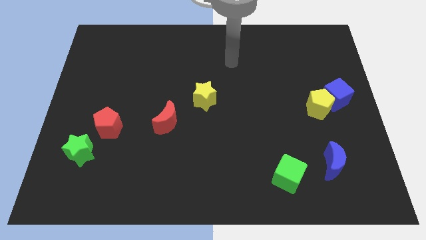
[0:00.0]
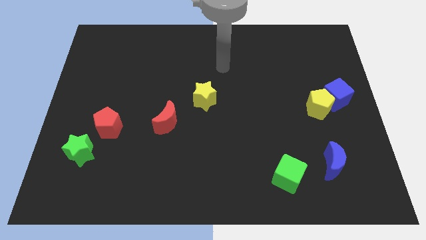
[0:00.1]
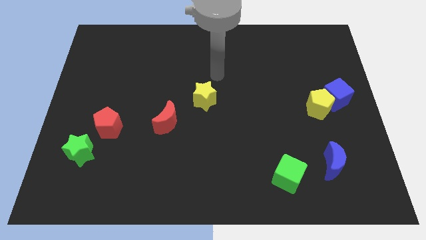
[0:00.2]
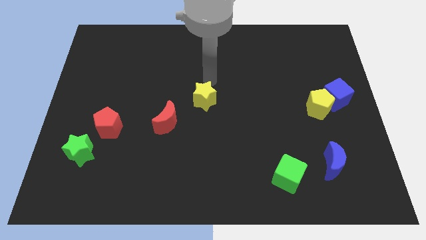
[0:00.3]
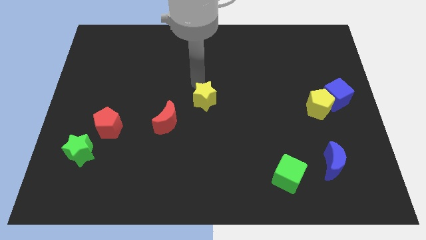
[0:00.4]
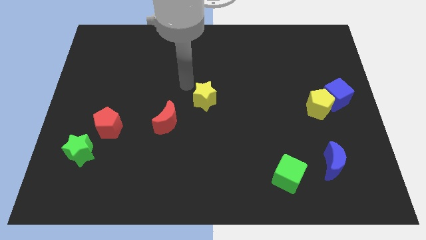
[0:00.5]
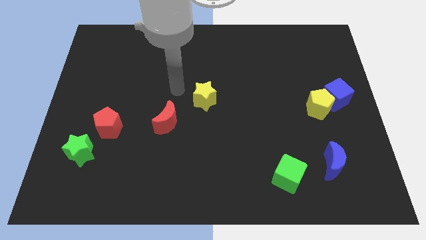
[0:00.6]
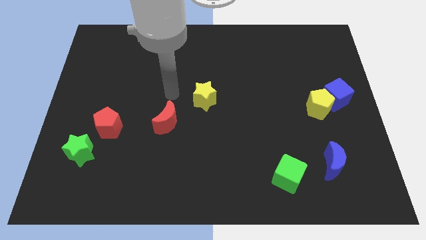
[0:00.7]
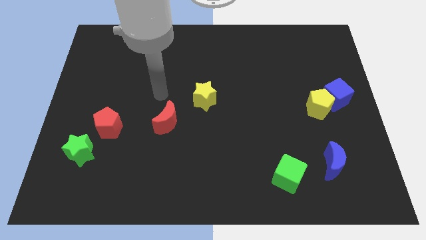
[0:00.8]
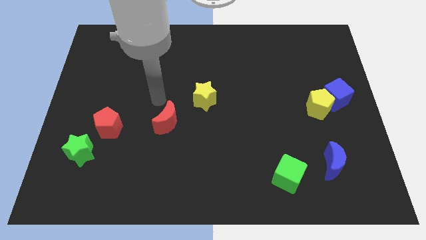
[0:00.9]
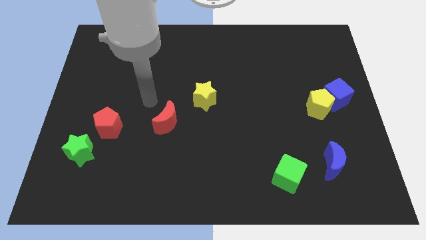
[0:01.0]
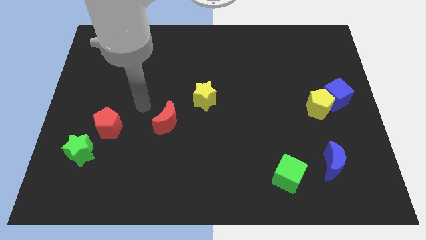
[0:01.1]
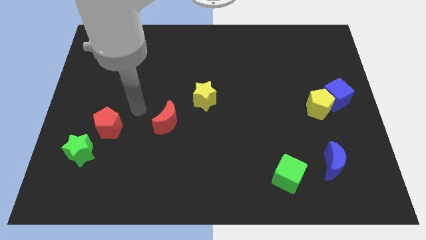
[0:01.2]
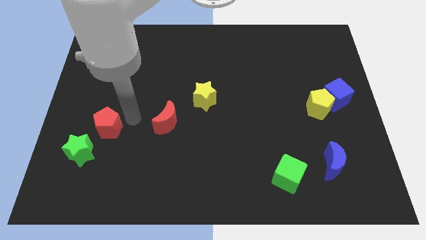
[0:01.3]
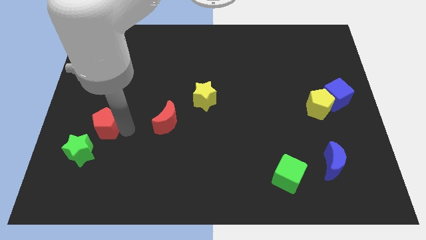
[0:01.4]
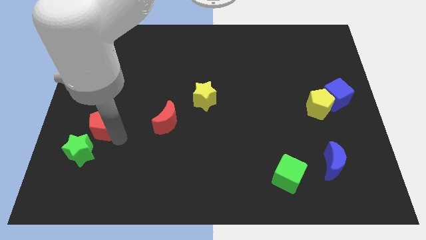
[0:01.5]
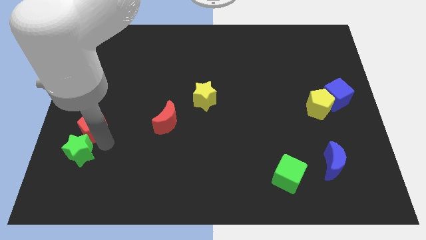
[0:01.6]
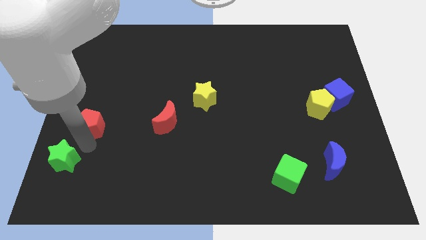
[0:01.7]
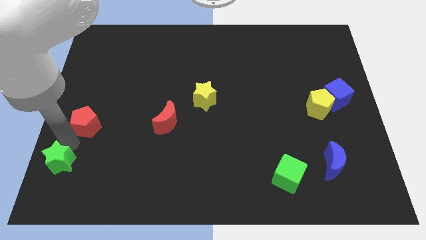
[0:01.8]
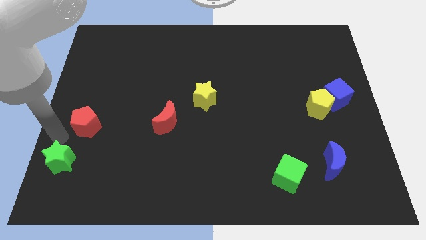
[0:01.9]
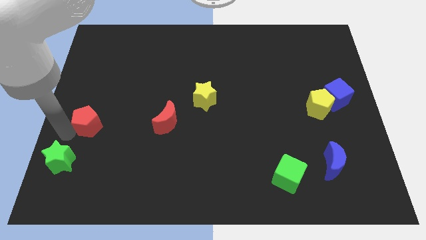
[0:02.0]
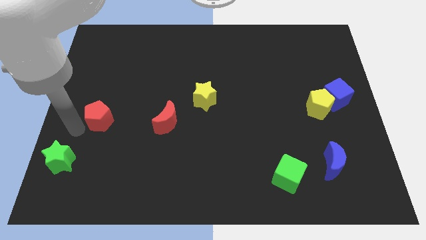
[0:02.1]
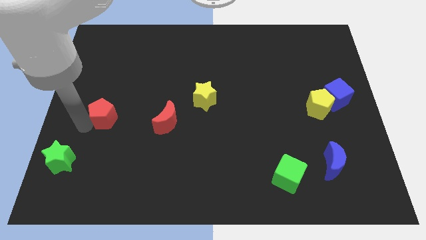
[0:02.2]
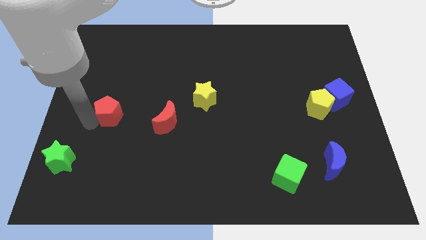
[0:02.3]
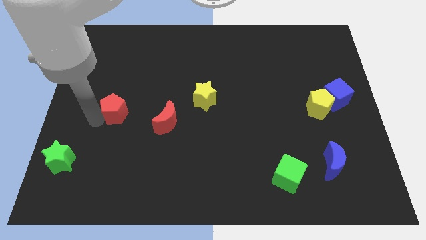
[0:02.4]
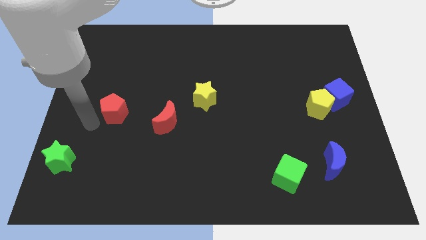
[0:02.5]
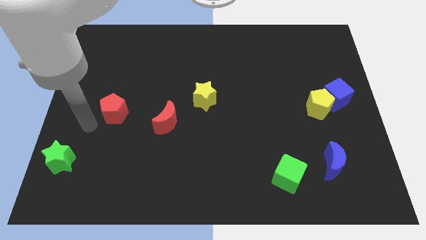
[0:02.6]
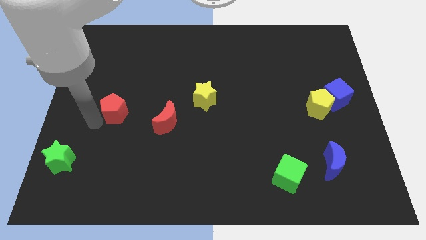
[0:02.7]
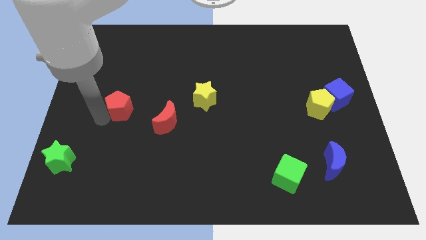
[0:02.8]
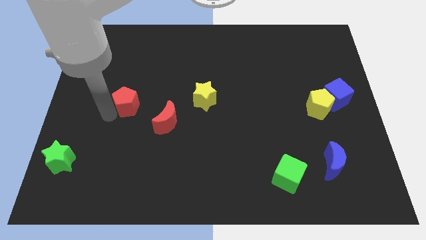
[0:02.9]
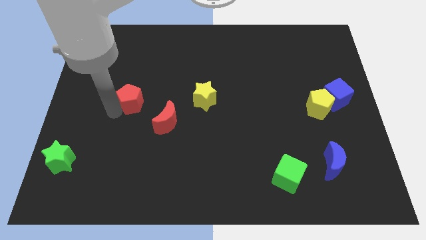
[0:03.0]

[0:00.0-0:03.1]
slightly push the red pentagon up and right

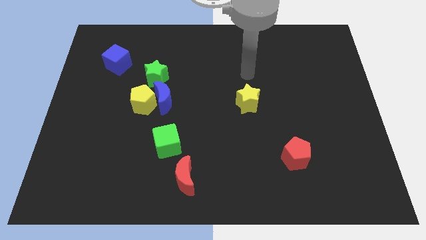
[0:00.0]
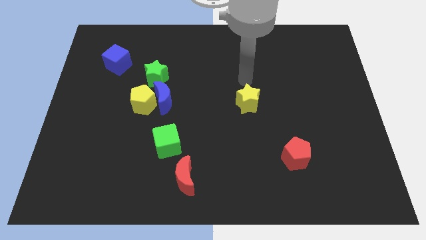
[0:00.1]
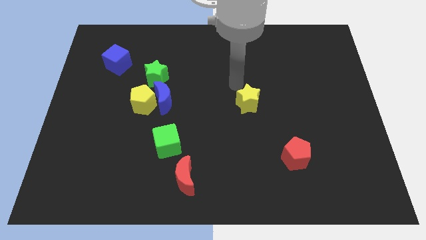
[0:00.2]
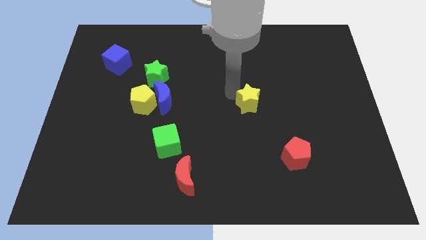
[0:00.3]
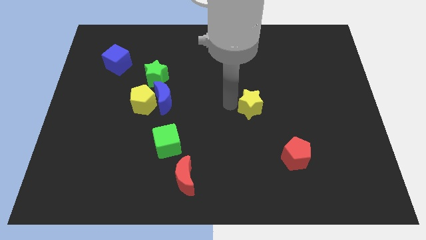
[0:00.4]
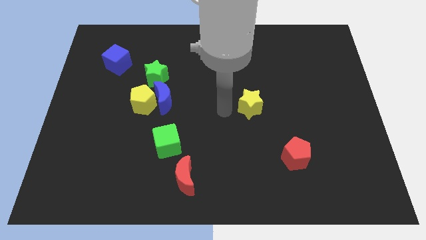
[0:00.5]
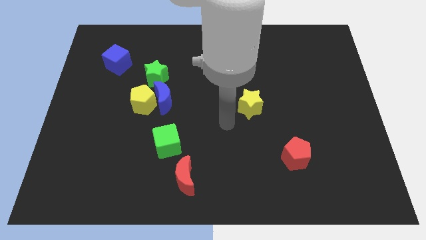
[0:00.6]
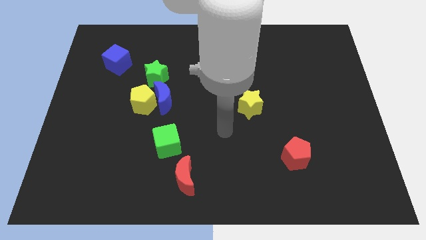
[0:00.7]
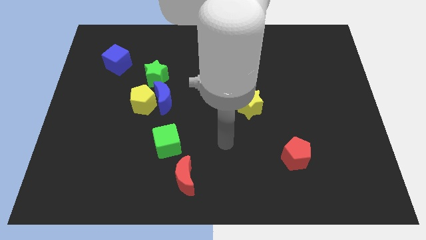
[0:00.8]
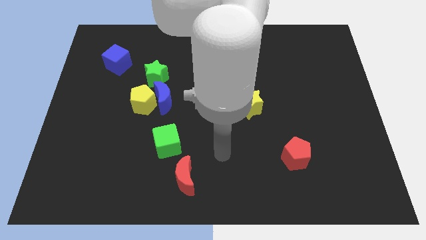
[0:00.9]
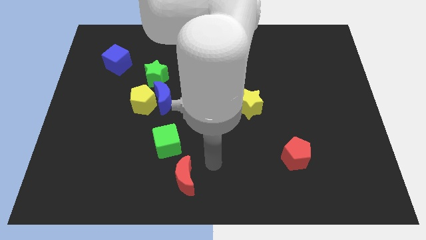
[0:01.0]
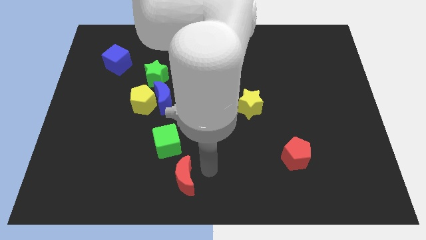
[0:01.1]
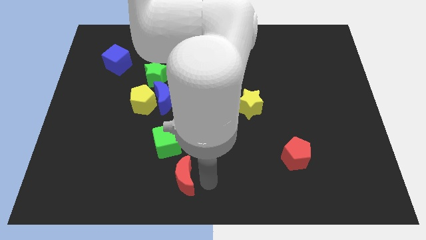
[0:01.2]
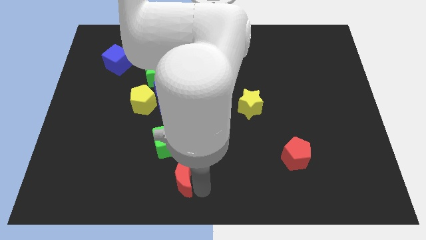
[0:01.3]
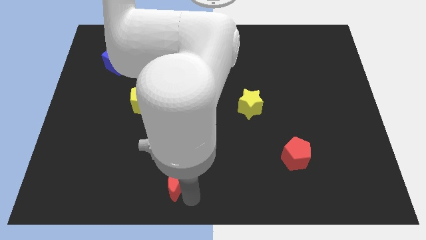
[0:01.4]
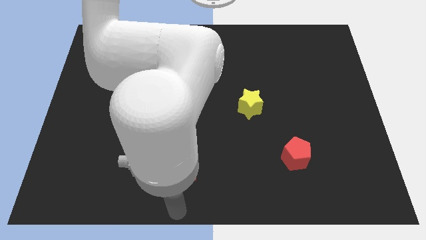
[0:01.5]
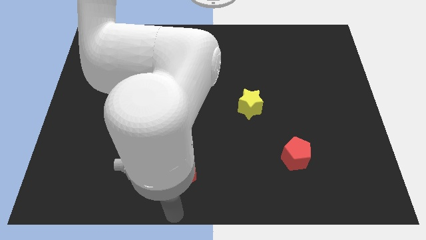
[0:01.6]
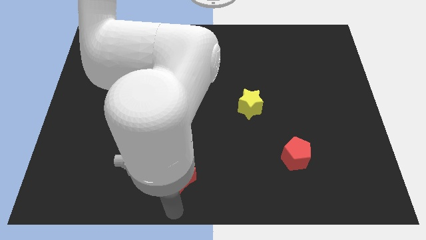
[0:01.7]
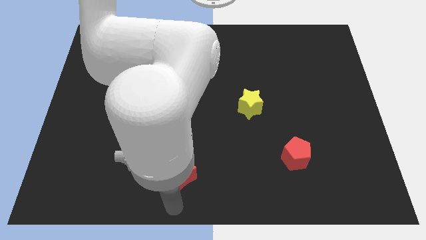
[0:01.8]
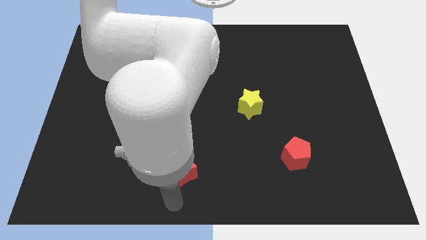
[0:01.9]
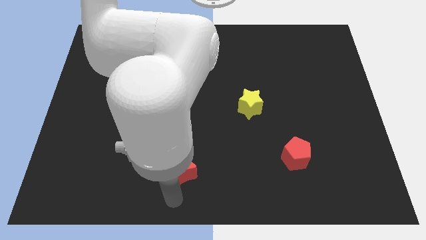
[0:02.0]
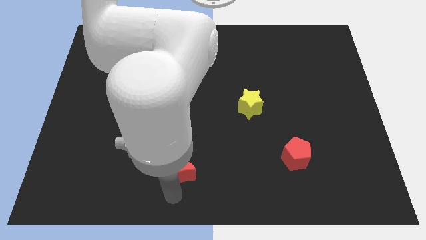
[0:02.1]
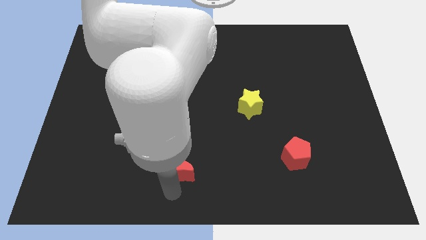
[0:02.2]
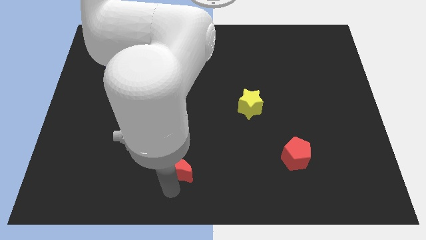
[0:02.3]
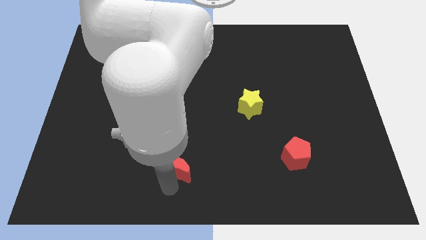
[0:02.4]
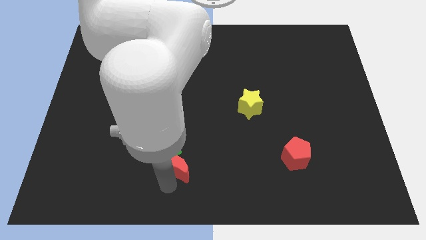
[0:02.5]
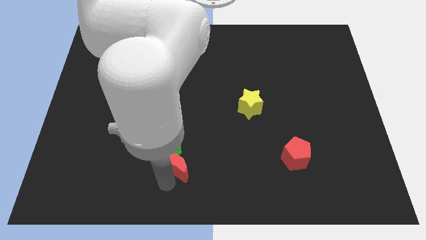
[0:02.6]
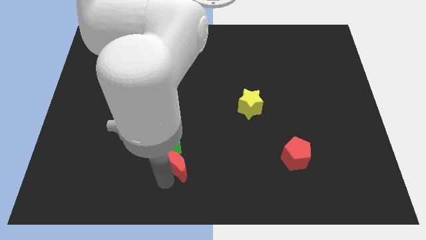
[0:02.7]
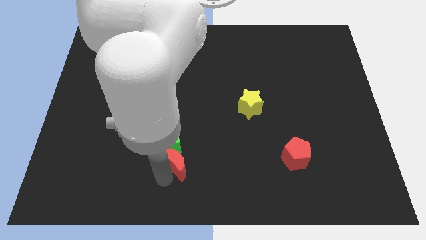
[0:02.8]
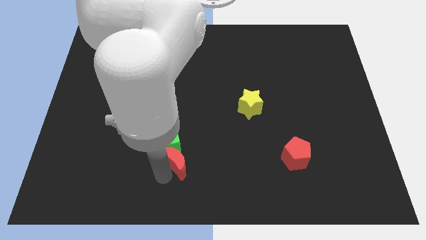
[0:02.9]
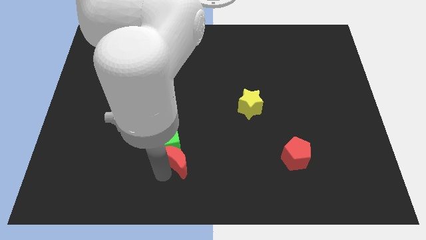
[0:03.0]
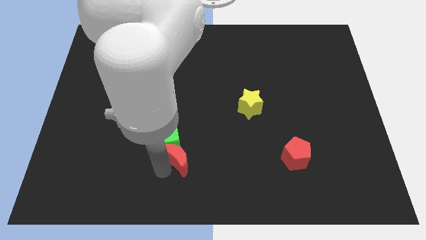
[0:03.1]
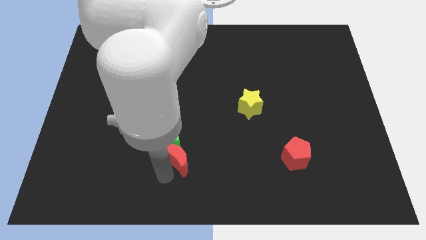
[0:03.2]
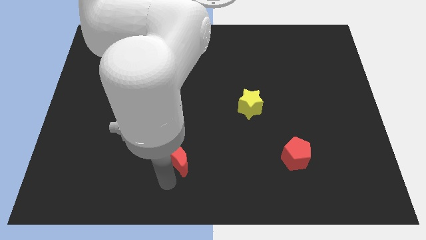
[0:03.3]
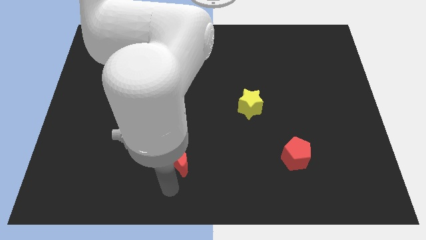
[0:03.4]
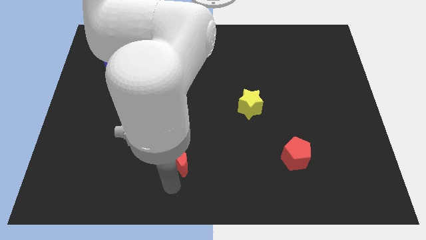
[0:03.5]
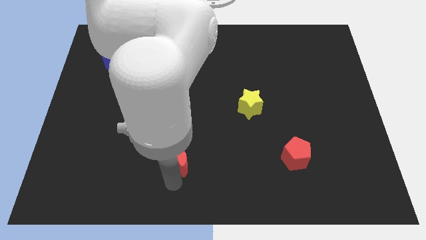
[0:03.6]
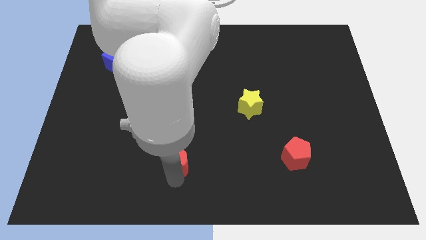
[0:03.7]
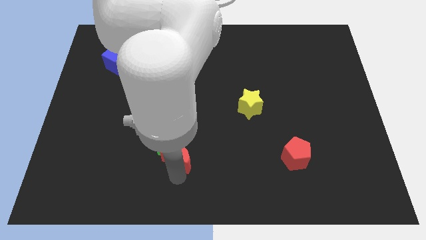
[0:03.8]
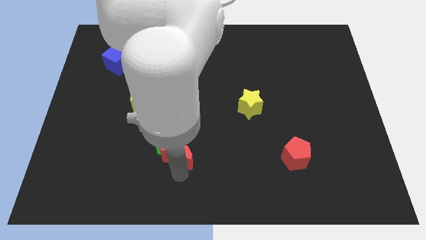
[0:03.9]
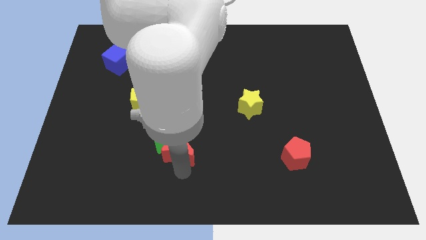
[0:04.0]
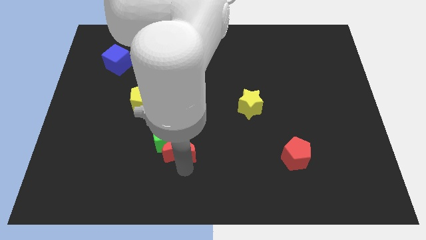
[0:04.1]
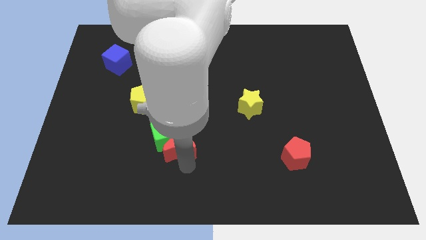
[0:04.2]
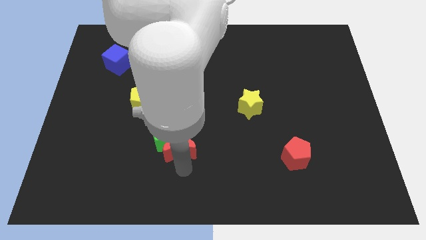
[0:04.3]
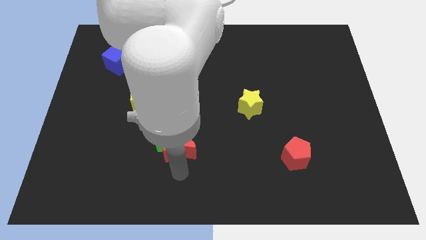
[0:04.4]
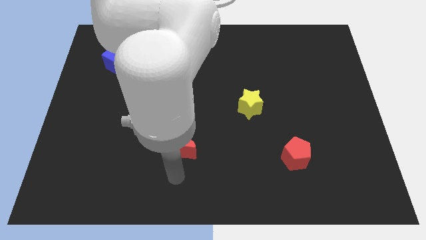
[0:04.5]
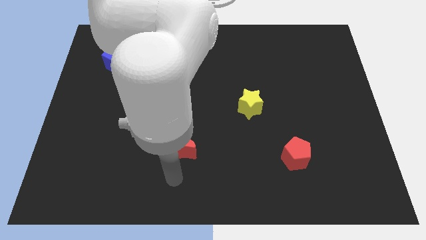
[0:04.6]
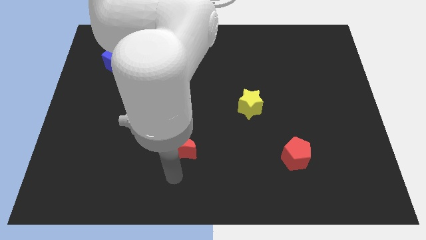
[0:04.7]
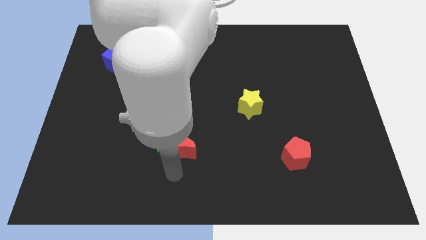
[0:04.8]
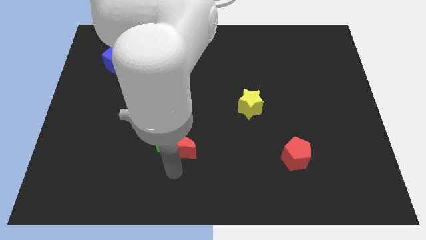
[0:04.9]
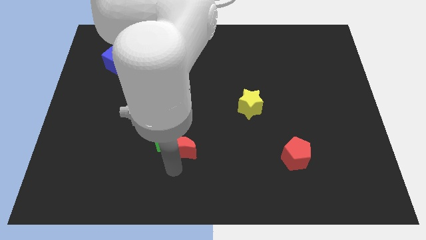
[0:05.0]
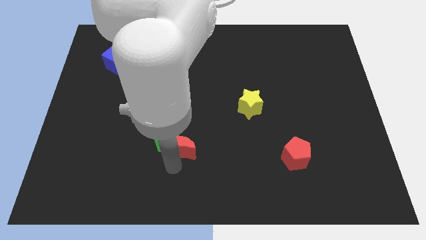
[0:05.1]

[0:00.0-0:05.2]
slightly slide the red moon up

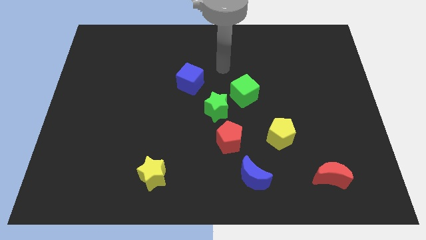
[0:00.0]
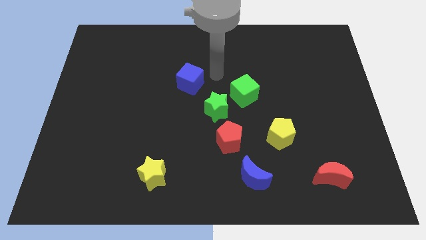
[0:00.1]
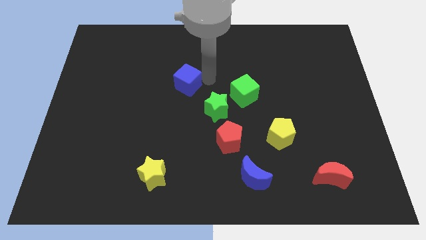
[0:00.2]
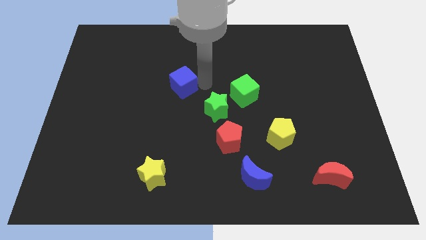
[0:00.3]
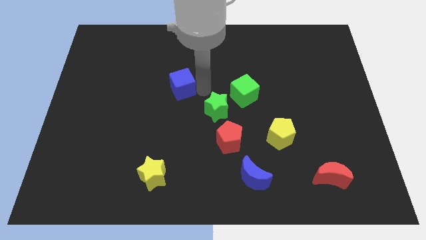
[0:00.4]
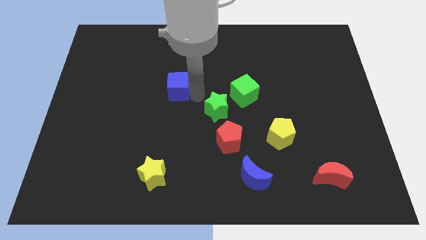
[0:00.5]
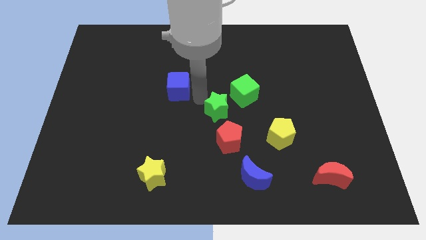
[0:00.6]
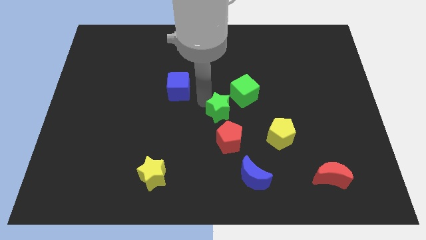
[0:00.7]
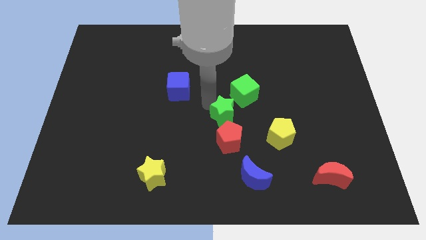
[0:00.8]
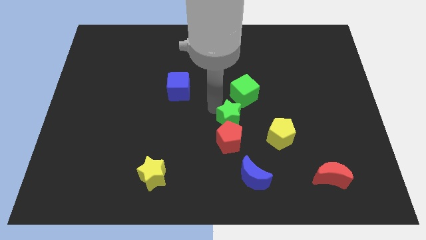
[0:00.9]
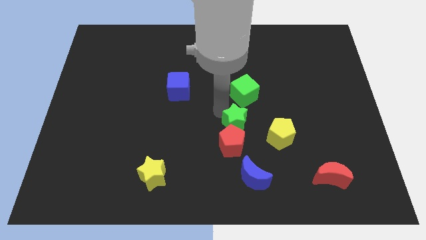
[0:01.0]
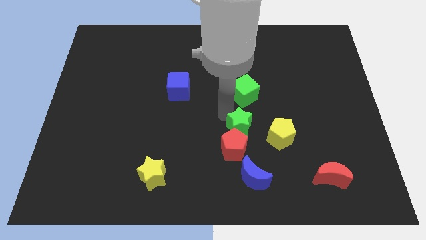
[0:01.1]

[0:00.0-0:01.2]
slide the green star a little bit downwards and right
